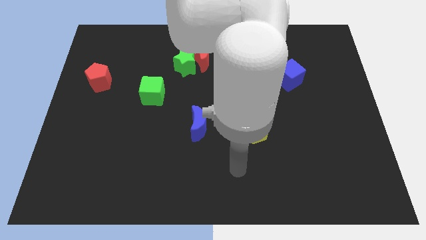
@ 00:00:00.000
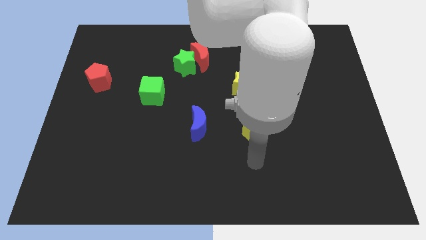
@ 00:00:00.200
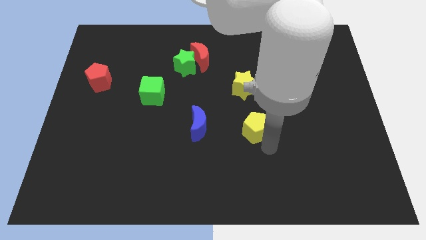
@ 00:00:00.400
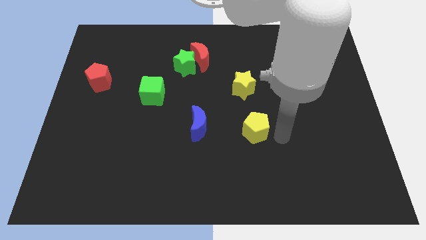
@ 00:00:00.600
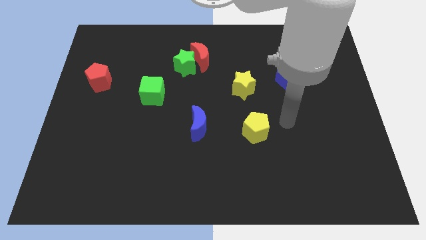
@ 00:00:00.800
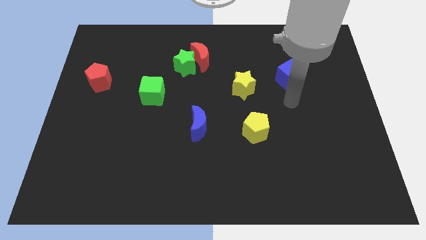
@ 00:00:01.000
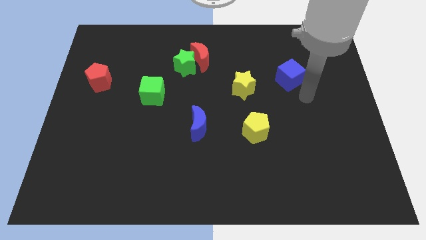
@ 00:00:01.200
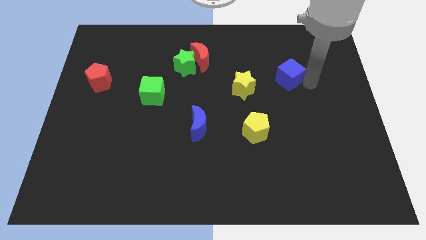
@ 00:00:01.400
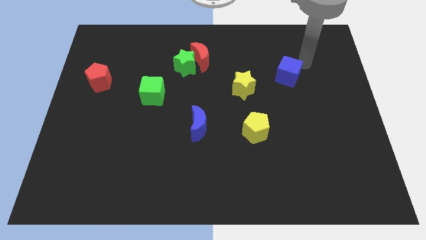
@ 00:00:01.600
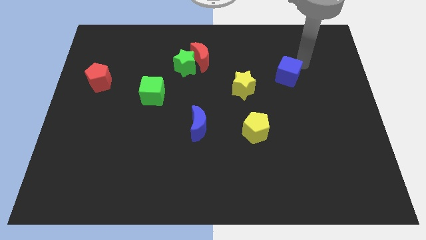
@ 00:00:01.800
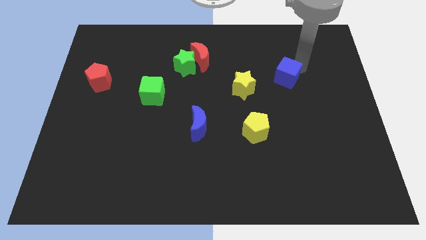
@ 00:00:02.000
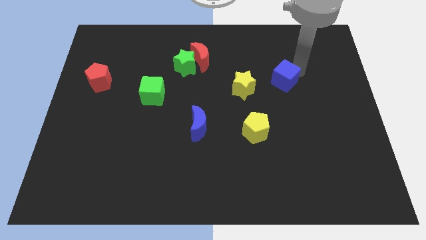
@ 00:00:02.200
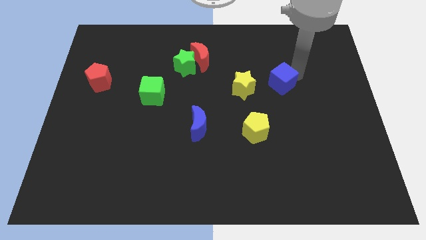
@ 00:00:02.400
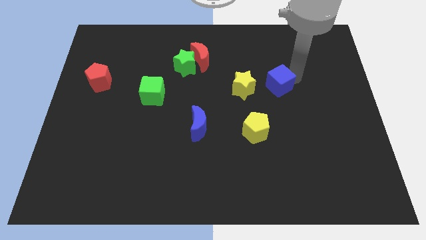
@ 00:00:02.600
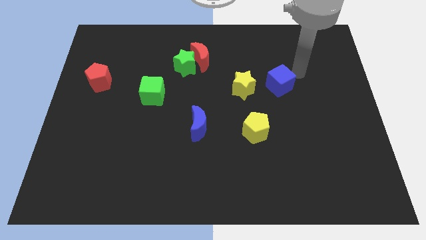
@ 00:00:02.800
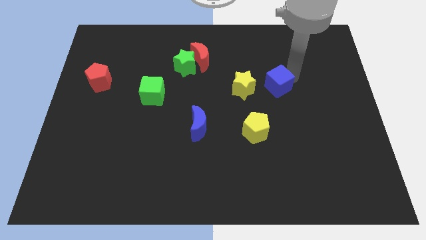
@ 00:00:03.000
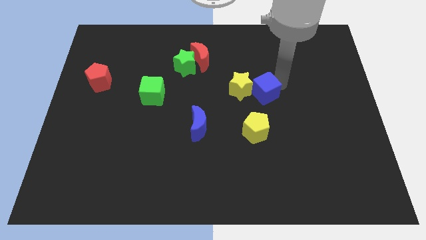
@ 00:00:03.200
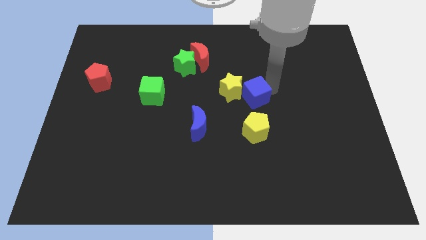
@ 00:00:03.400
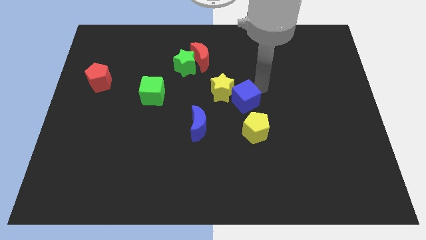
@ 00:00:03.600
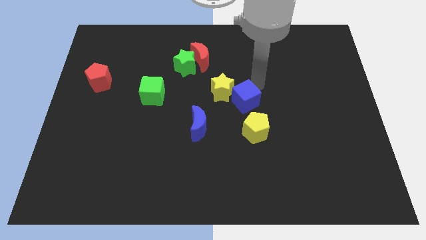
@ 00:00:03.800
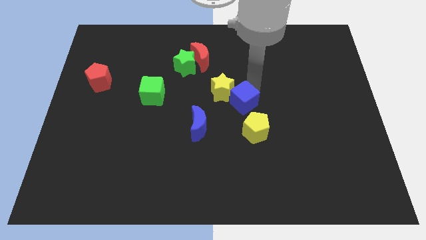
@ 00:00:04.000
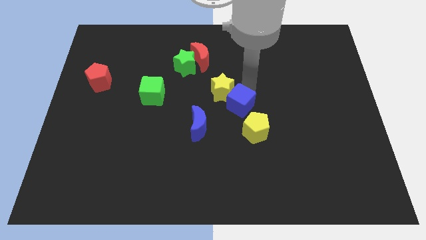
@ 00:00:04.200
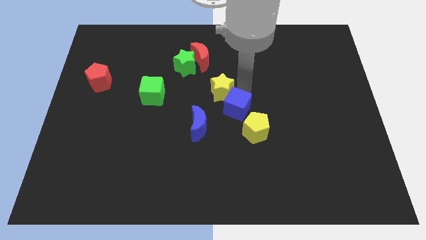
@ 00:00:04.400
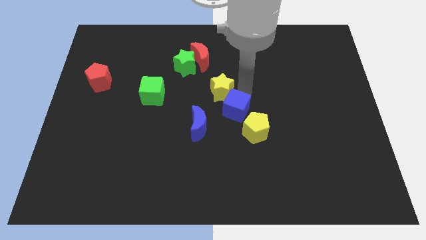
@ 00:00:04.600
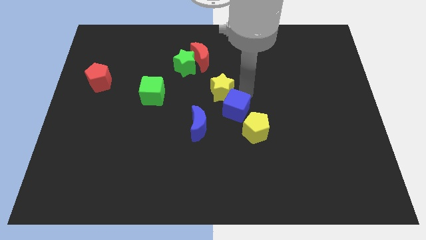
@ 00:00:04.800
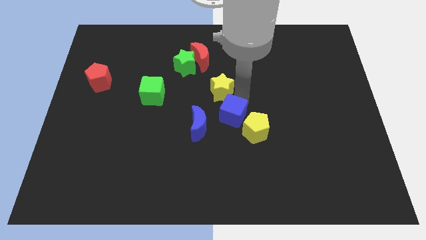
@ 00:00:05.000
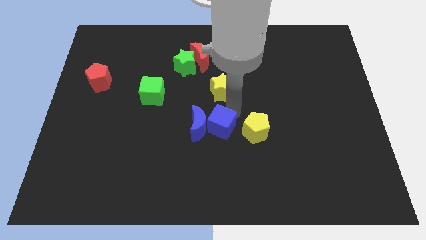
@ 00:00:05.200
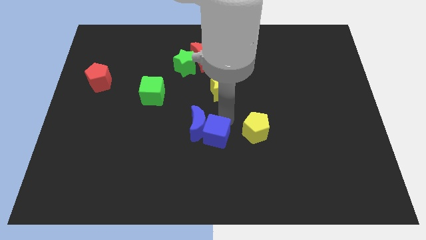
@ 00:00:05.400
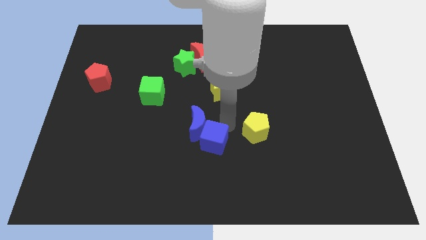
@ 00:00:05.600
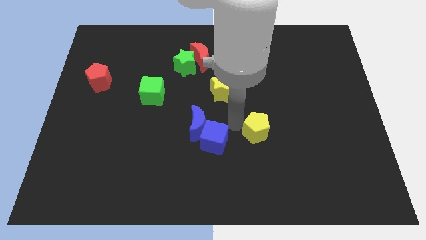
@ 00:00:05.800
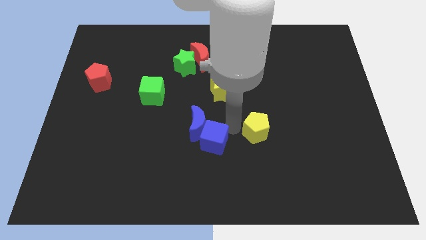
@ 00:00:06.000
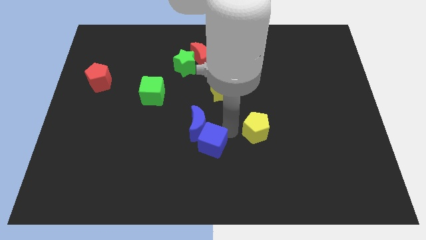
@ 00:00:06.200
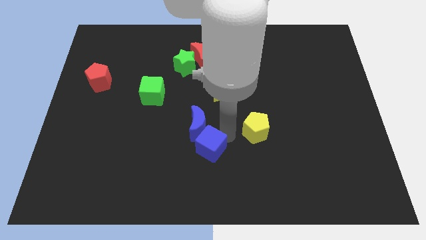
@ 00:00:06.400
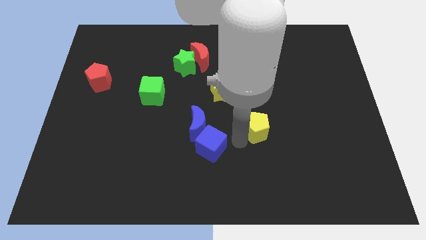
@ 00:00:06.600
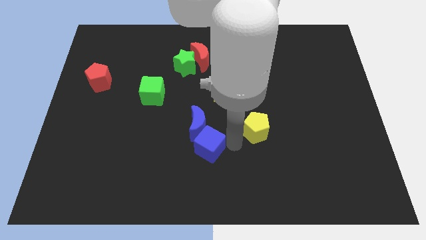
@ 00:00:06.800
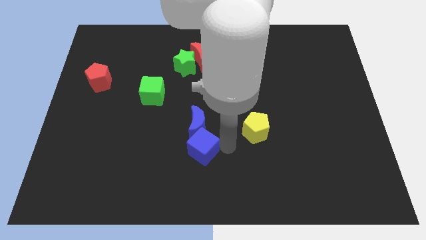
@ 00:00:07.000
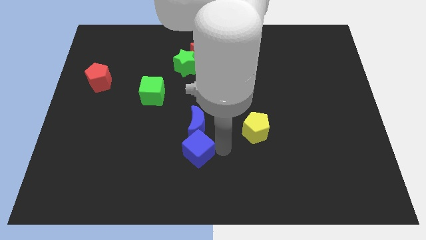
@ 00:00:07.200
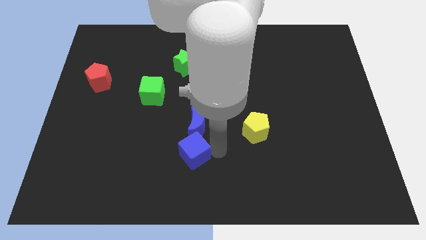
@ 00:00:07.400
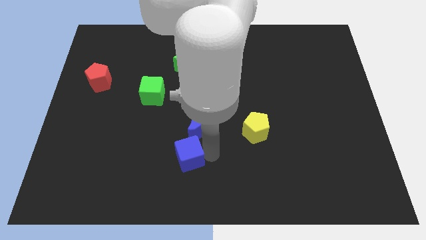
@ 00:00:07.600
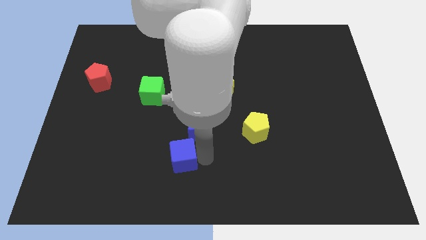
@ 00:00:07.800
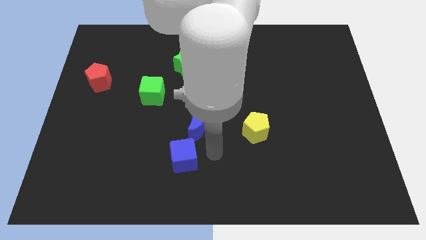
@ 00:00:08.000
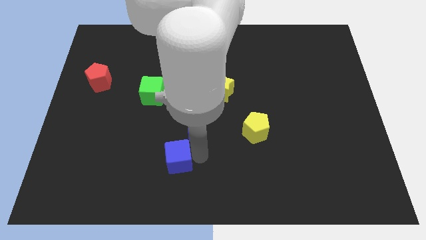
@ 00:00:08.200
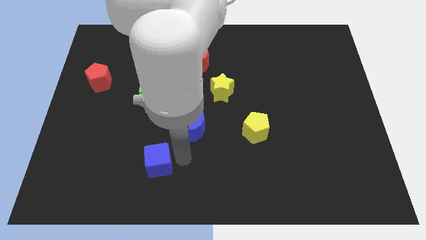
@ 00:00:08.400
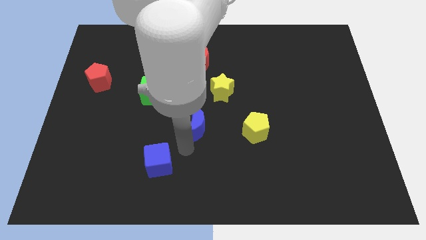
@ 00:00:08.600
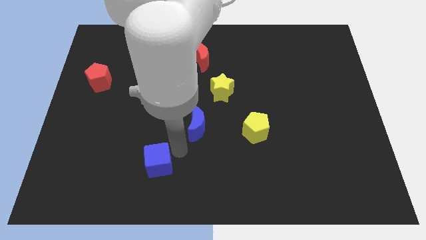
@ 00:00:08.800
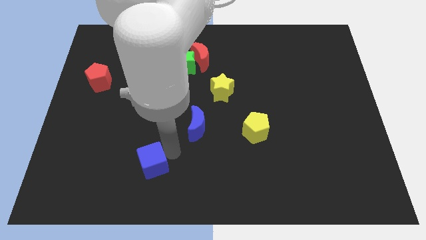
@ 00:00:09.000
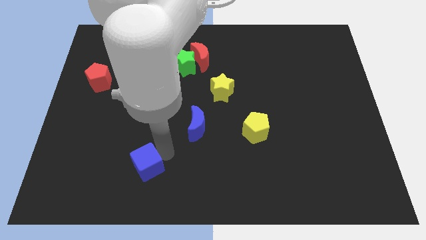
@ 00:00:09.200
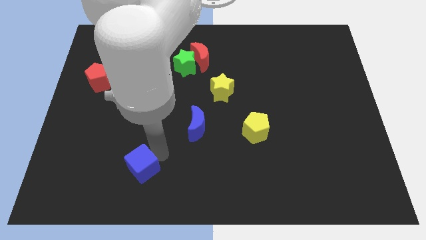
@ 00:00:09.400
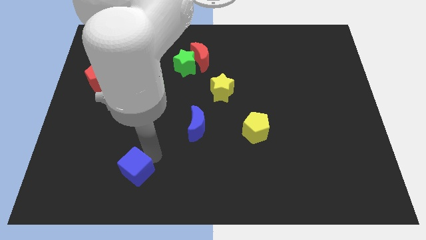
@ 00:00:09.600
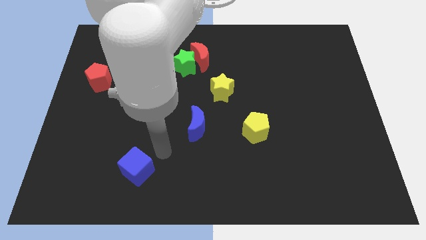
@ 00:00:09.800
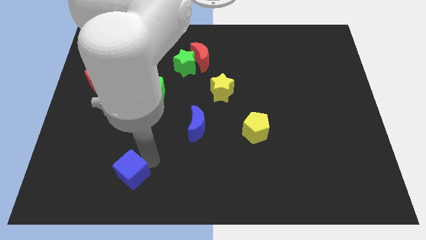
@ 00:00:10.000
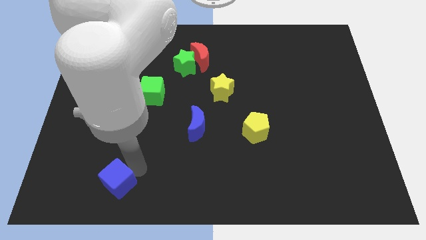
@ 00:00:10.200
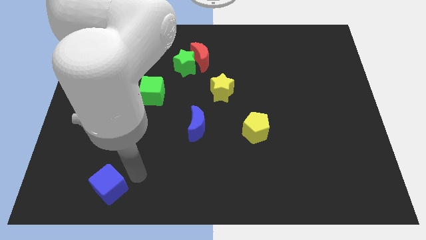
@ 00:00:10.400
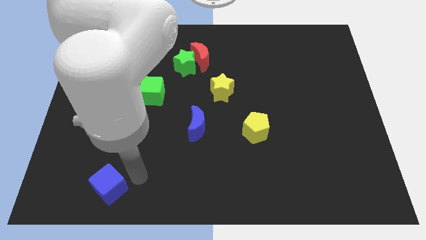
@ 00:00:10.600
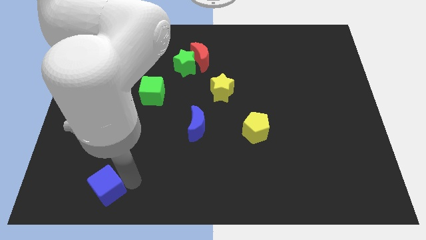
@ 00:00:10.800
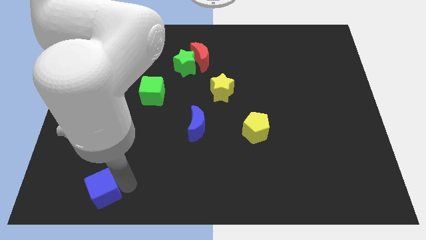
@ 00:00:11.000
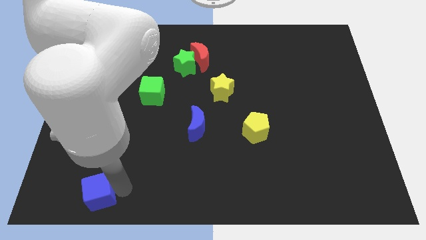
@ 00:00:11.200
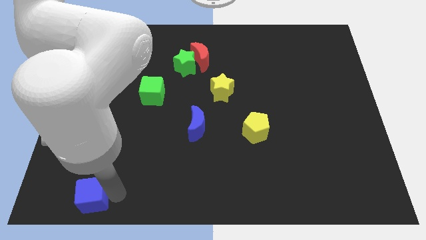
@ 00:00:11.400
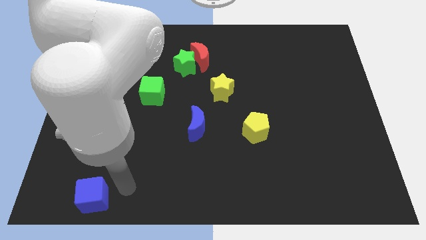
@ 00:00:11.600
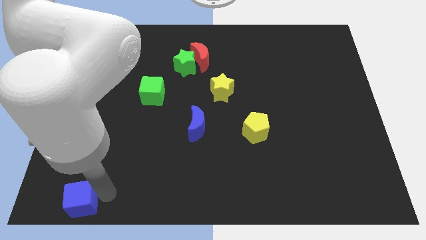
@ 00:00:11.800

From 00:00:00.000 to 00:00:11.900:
push the blue cube to the bottom left corner

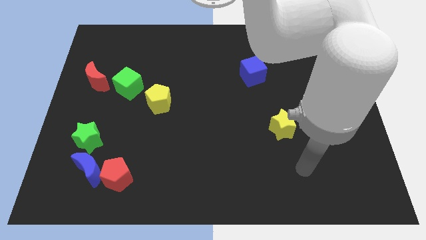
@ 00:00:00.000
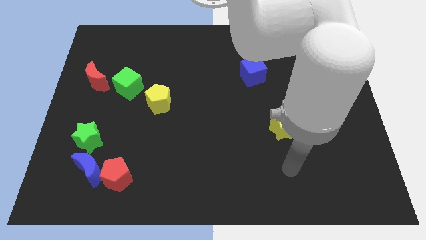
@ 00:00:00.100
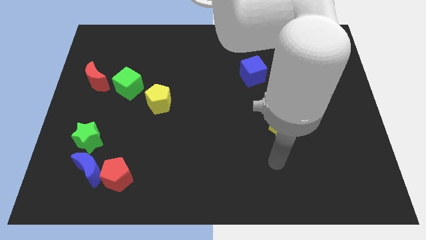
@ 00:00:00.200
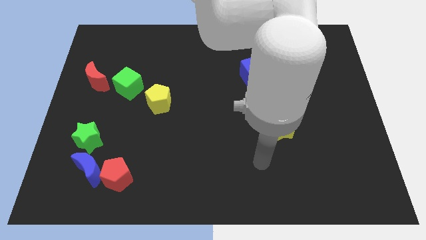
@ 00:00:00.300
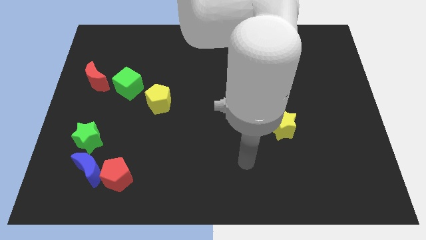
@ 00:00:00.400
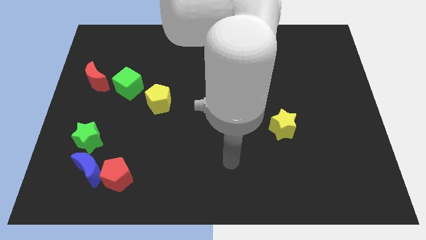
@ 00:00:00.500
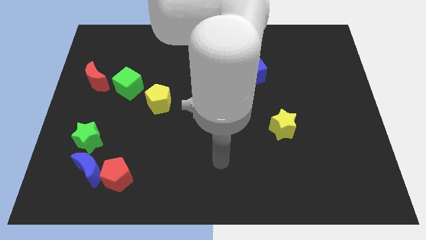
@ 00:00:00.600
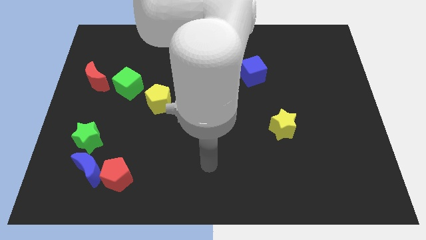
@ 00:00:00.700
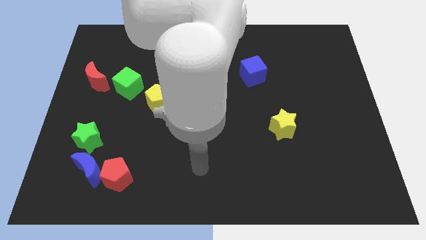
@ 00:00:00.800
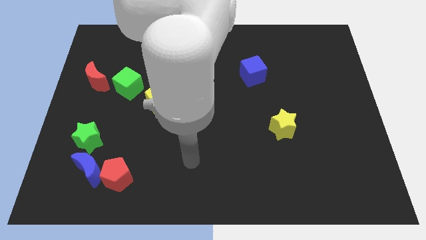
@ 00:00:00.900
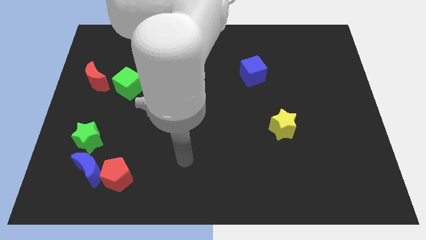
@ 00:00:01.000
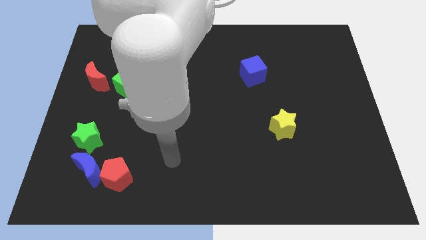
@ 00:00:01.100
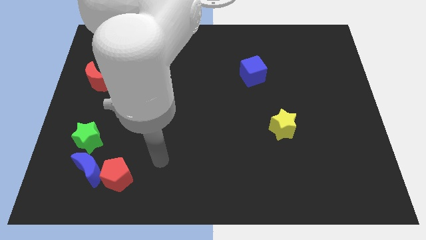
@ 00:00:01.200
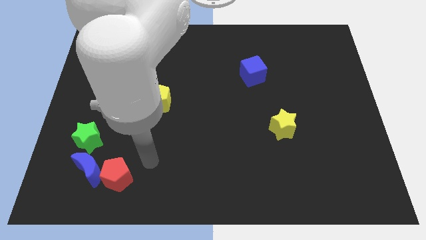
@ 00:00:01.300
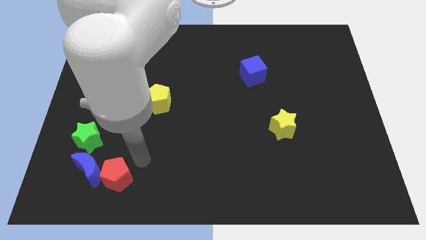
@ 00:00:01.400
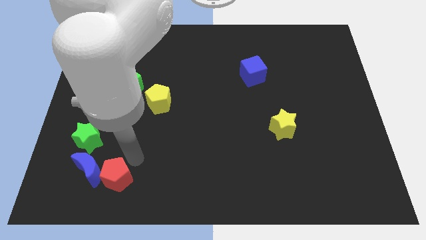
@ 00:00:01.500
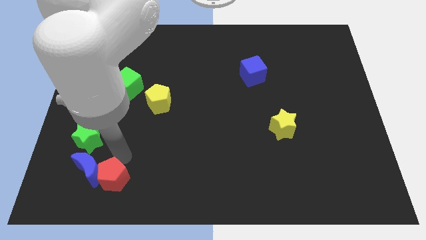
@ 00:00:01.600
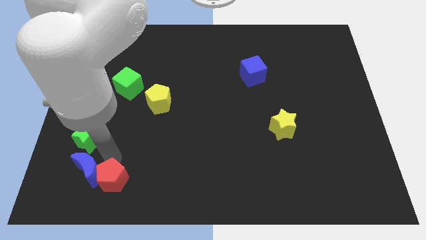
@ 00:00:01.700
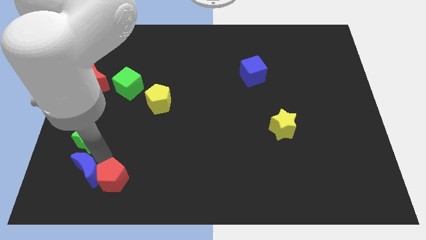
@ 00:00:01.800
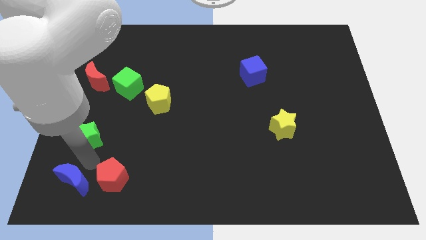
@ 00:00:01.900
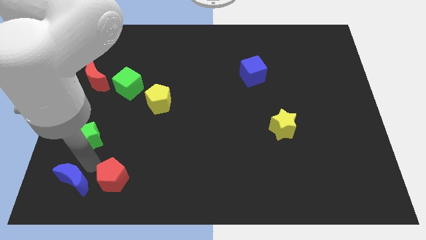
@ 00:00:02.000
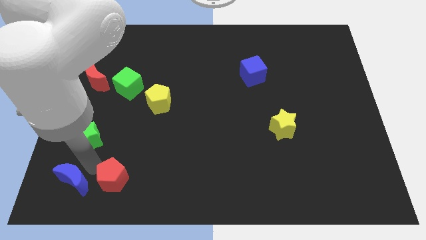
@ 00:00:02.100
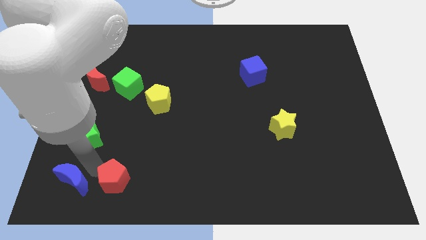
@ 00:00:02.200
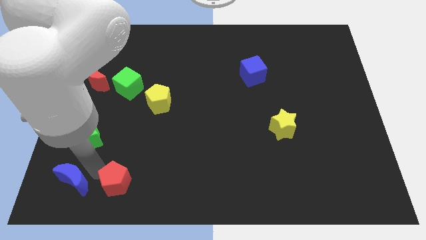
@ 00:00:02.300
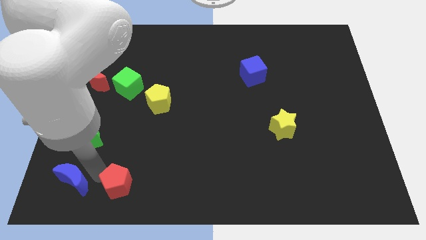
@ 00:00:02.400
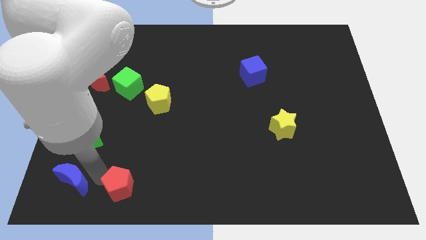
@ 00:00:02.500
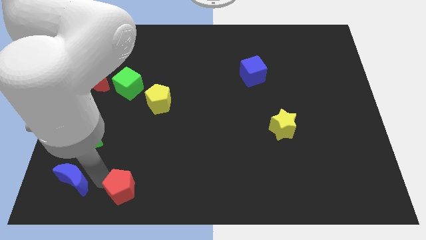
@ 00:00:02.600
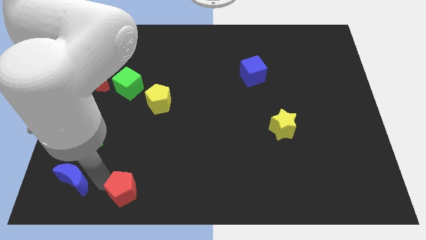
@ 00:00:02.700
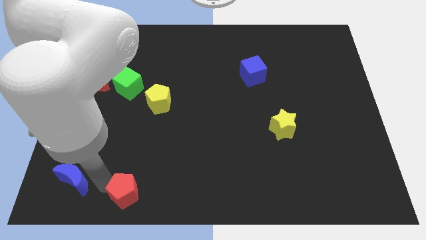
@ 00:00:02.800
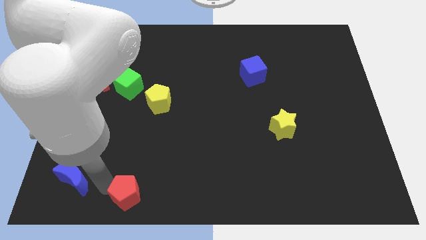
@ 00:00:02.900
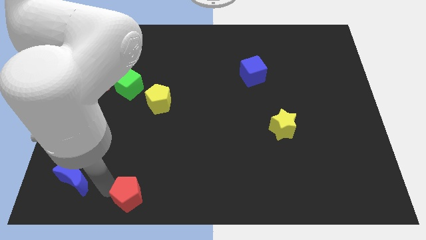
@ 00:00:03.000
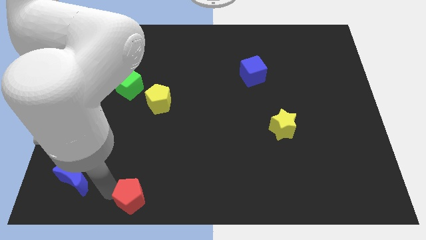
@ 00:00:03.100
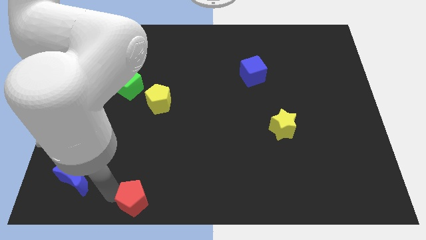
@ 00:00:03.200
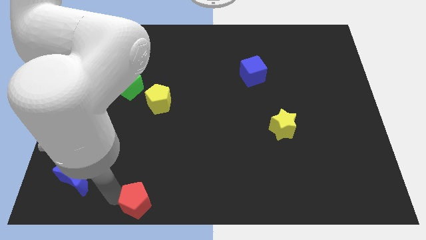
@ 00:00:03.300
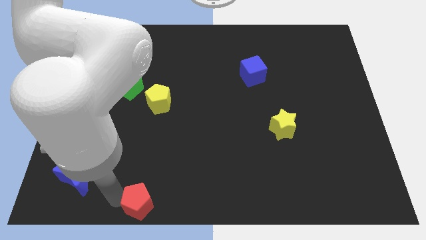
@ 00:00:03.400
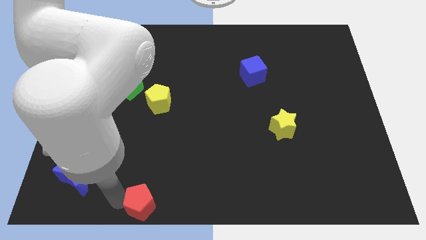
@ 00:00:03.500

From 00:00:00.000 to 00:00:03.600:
move the red pentagon to the bottom side
